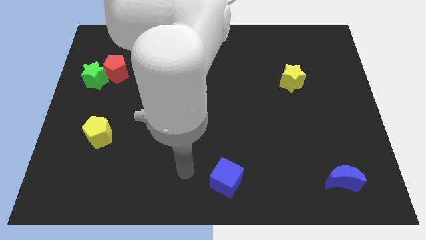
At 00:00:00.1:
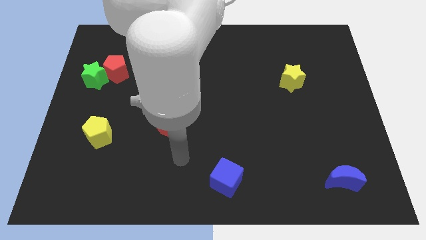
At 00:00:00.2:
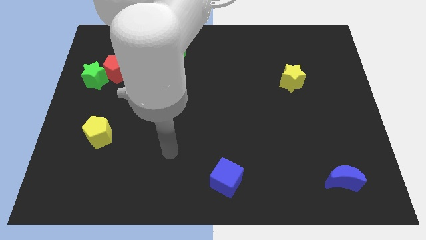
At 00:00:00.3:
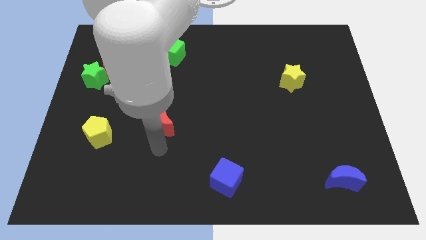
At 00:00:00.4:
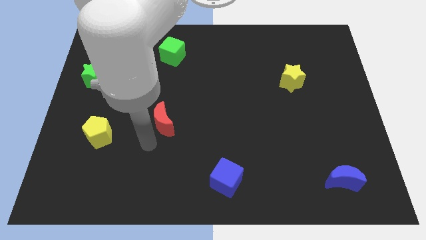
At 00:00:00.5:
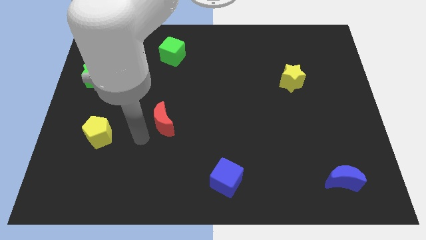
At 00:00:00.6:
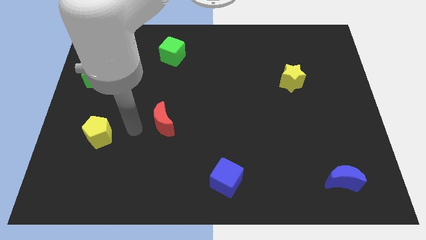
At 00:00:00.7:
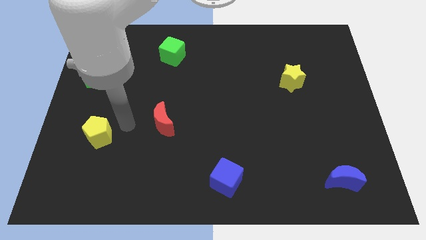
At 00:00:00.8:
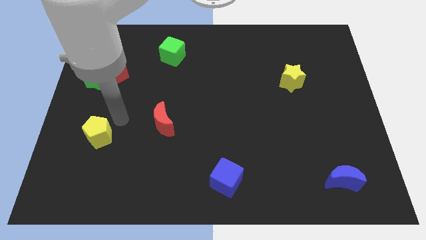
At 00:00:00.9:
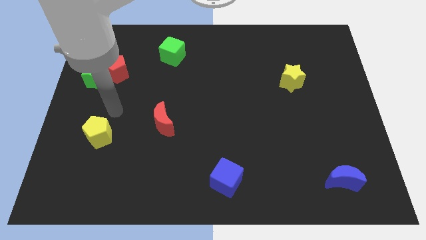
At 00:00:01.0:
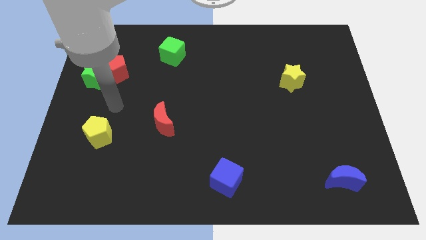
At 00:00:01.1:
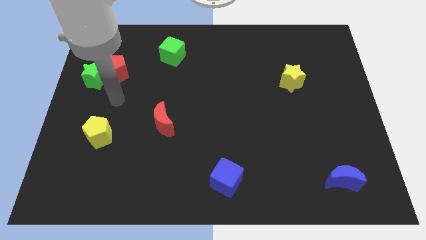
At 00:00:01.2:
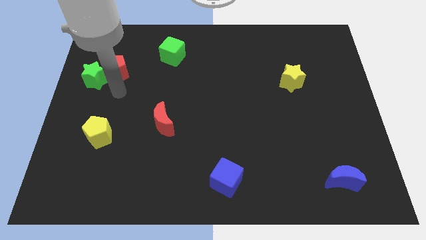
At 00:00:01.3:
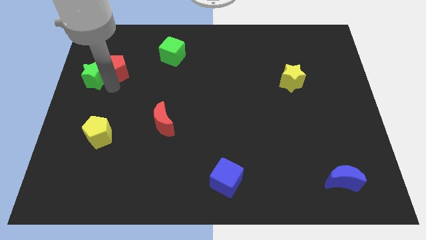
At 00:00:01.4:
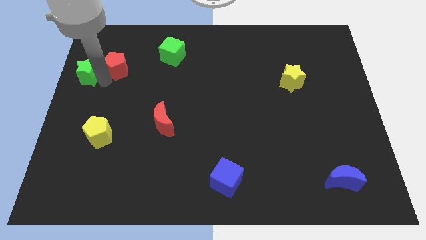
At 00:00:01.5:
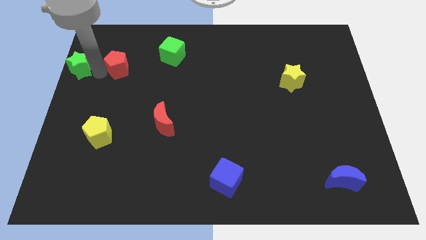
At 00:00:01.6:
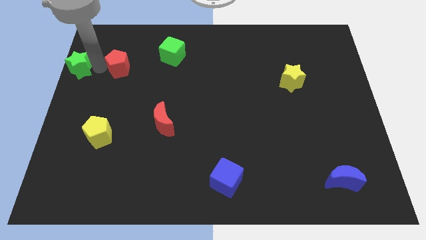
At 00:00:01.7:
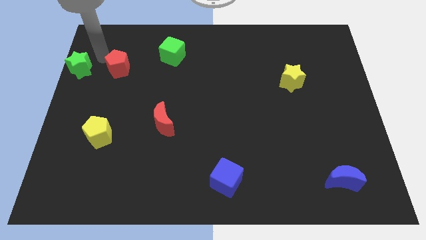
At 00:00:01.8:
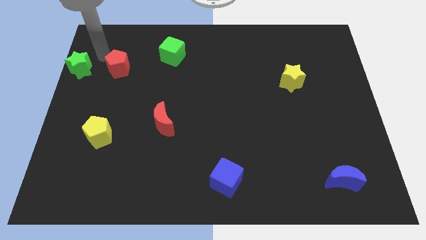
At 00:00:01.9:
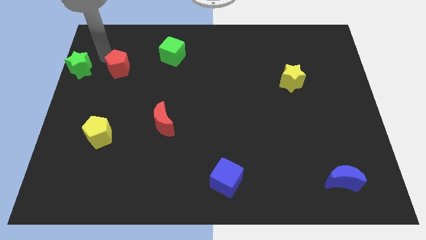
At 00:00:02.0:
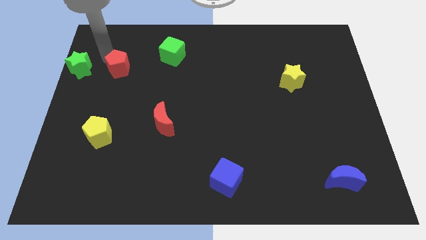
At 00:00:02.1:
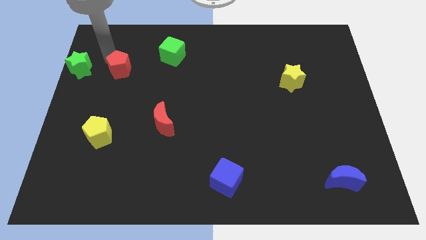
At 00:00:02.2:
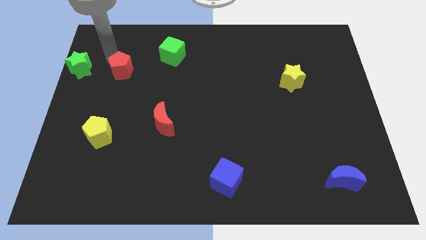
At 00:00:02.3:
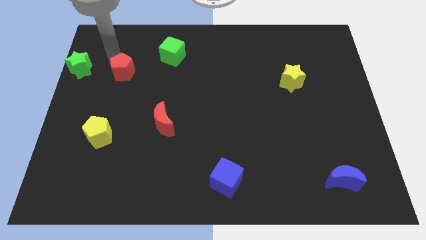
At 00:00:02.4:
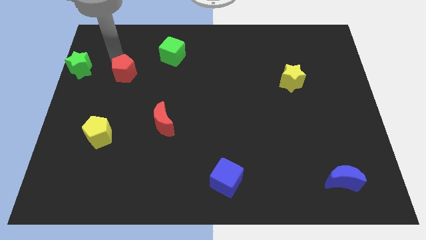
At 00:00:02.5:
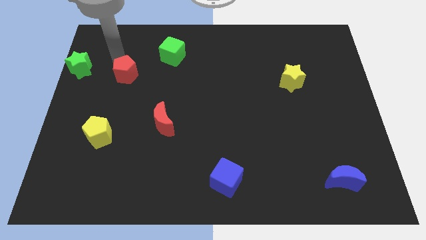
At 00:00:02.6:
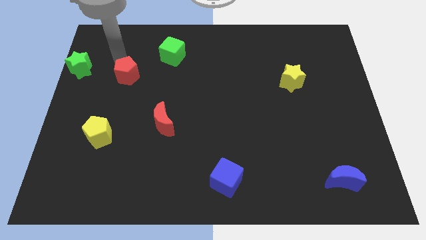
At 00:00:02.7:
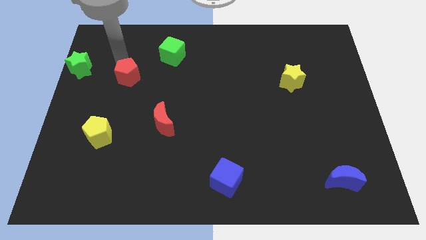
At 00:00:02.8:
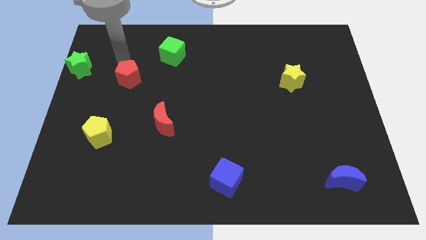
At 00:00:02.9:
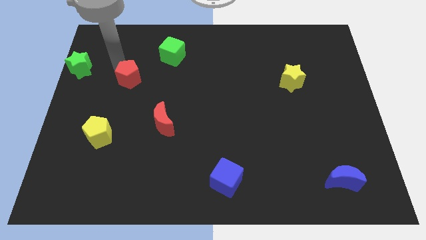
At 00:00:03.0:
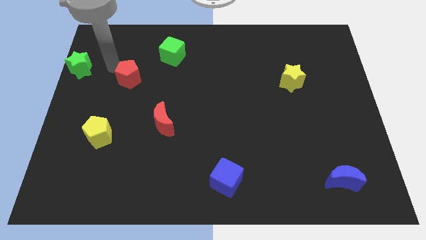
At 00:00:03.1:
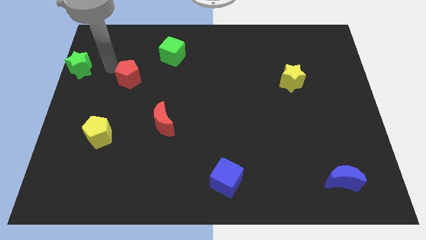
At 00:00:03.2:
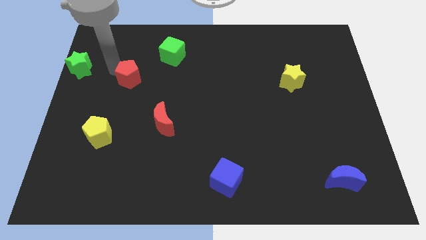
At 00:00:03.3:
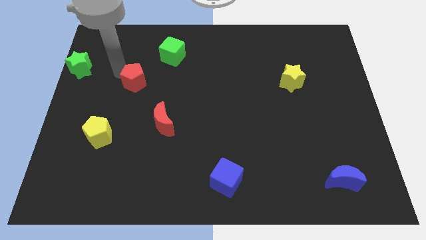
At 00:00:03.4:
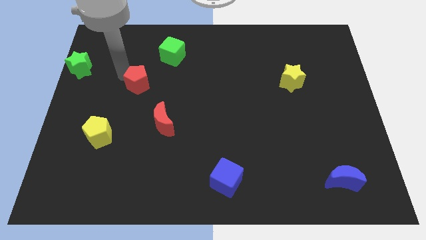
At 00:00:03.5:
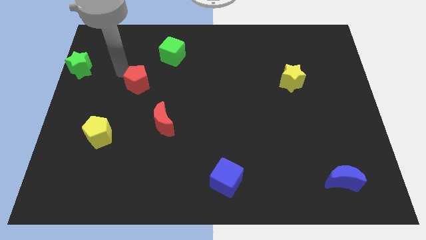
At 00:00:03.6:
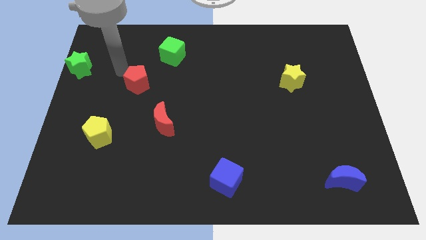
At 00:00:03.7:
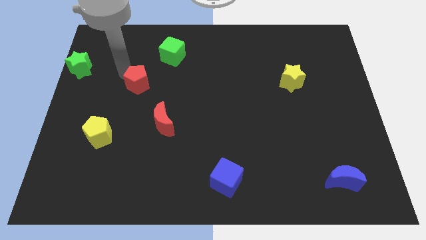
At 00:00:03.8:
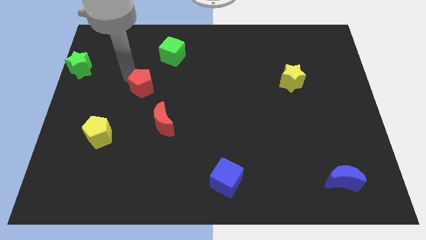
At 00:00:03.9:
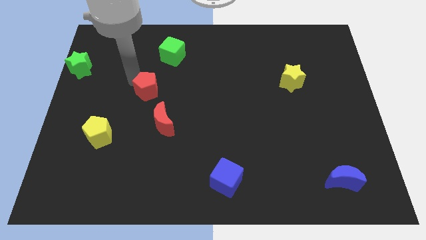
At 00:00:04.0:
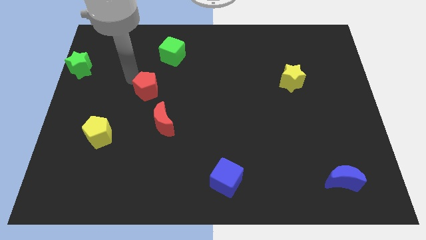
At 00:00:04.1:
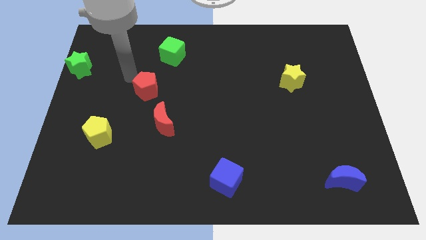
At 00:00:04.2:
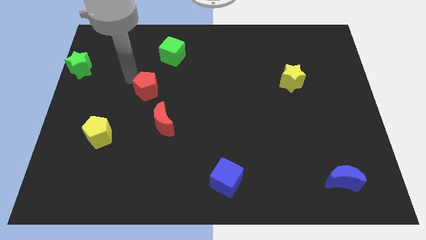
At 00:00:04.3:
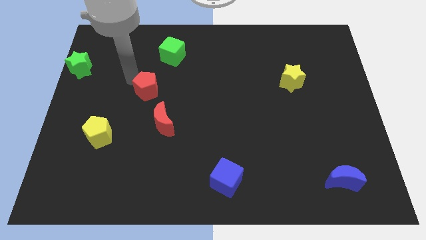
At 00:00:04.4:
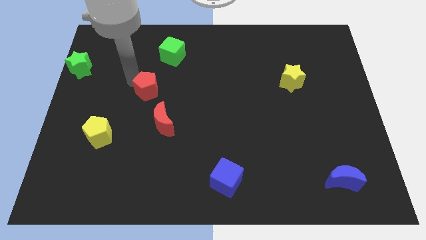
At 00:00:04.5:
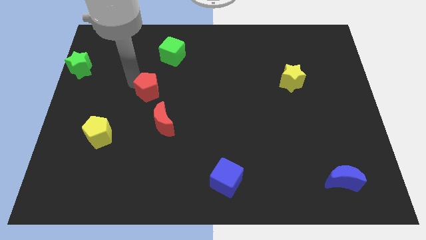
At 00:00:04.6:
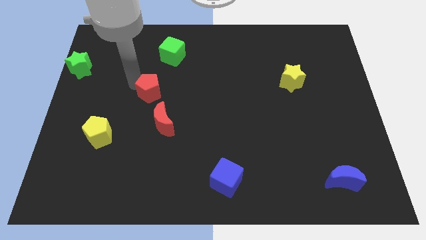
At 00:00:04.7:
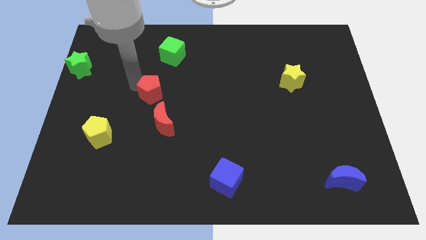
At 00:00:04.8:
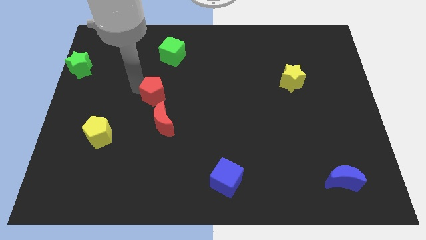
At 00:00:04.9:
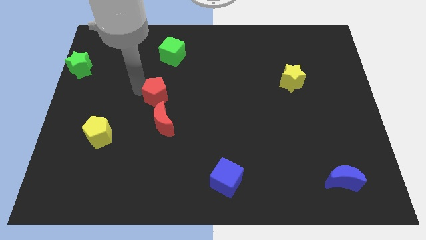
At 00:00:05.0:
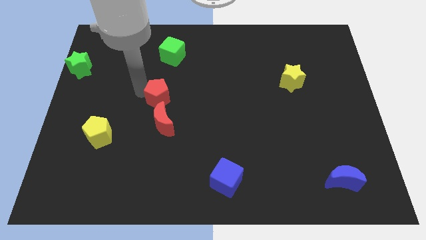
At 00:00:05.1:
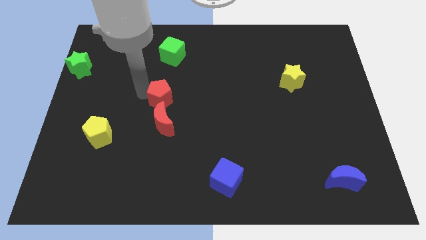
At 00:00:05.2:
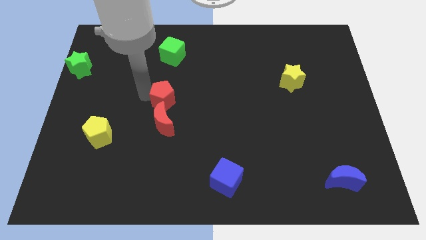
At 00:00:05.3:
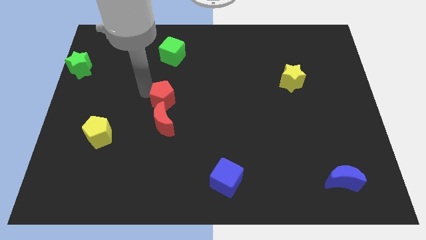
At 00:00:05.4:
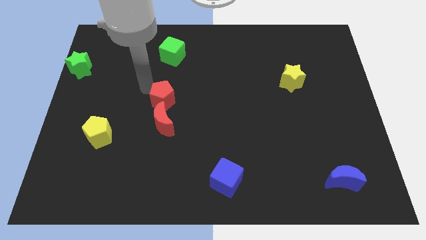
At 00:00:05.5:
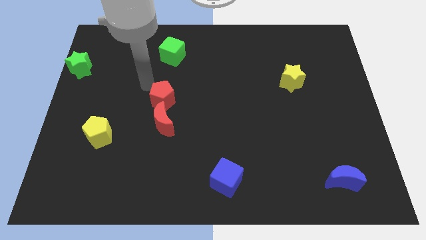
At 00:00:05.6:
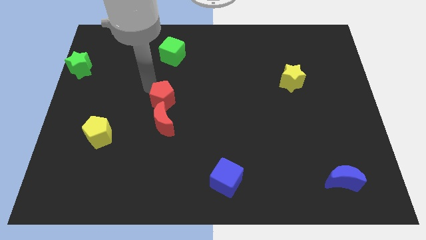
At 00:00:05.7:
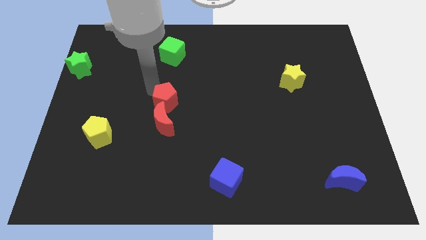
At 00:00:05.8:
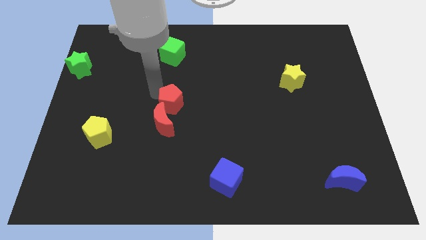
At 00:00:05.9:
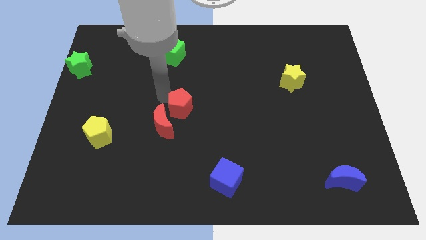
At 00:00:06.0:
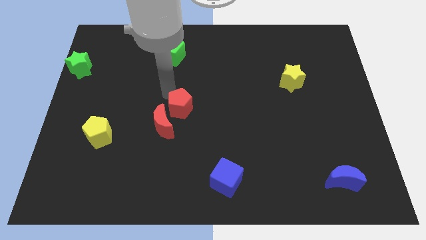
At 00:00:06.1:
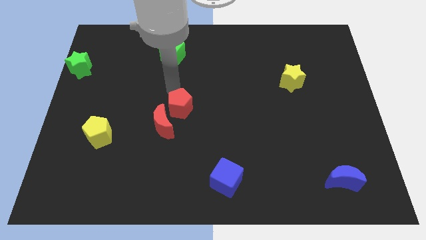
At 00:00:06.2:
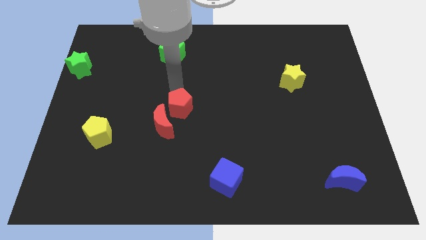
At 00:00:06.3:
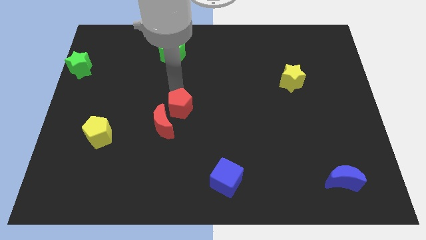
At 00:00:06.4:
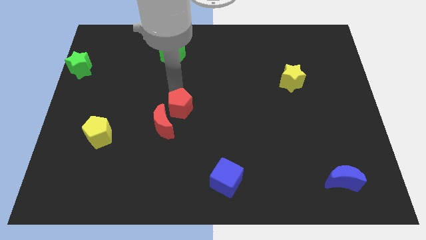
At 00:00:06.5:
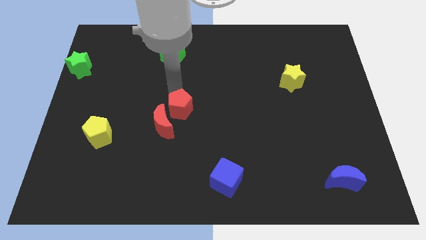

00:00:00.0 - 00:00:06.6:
push the red pentagon down and right

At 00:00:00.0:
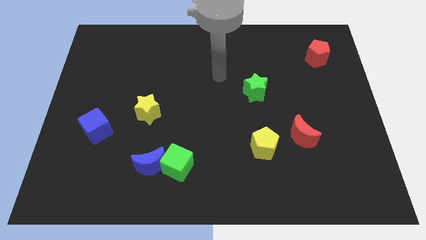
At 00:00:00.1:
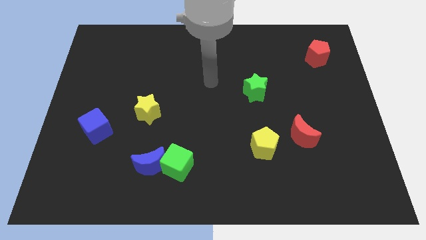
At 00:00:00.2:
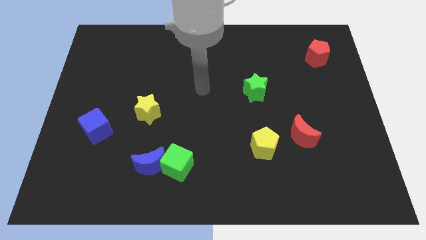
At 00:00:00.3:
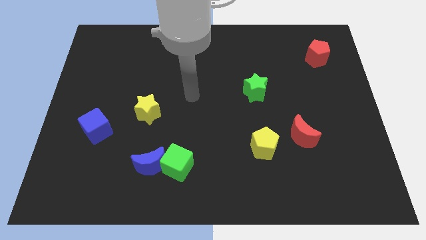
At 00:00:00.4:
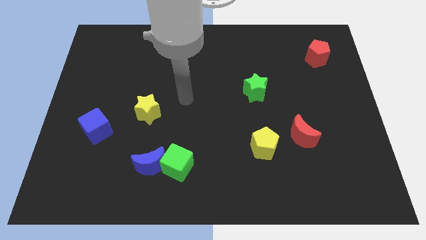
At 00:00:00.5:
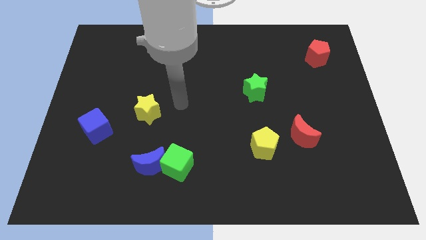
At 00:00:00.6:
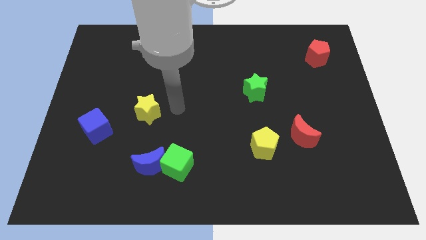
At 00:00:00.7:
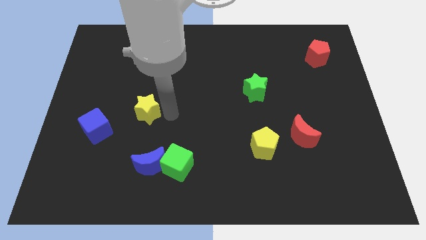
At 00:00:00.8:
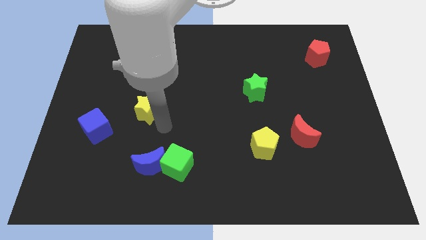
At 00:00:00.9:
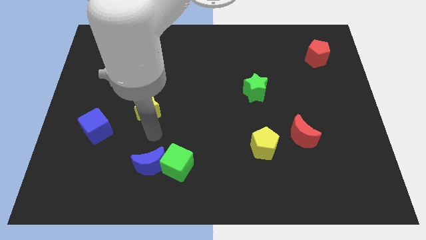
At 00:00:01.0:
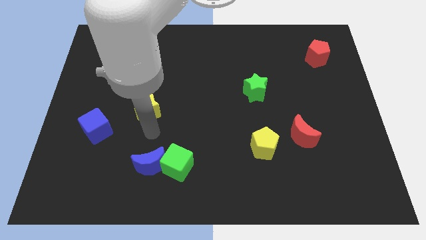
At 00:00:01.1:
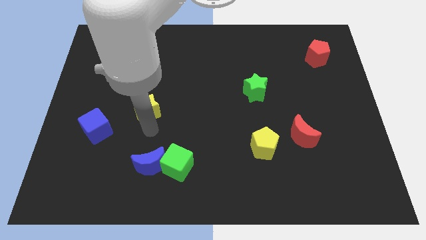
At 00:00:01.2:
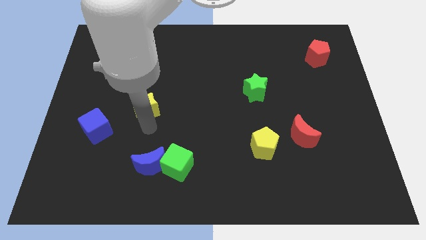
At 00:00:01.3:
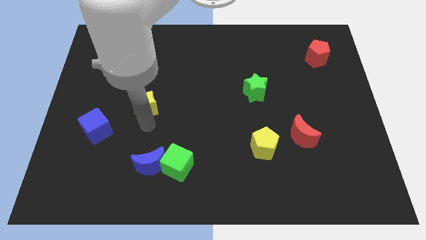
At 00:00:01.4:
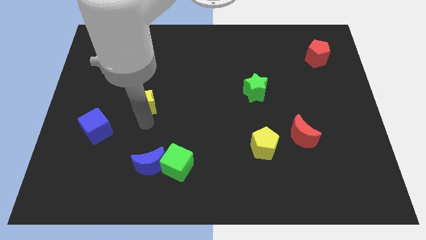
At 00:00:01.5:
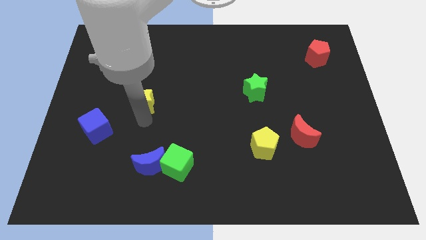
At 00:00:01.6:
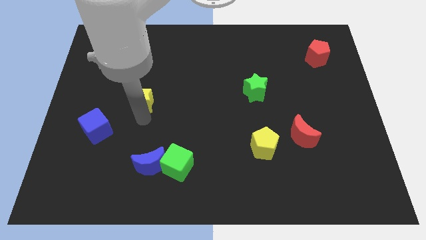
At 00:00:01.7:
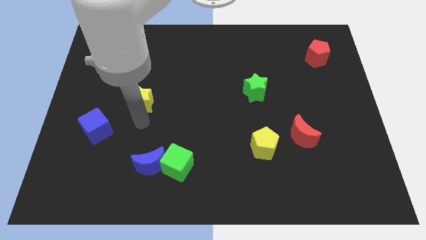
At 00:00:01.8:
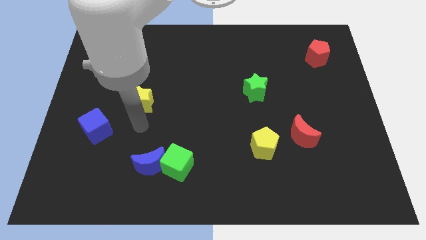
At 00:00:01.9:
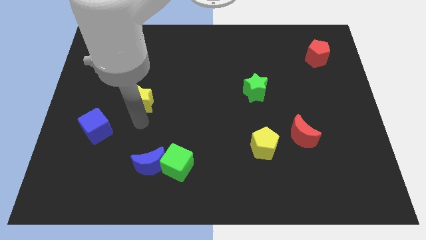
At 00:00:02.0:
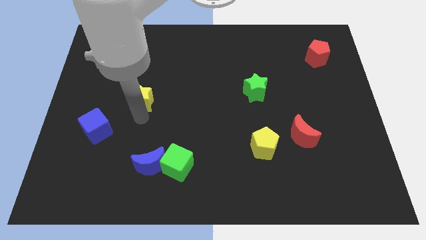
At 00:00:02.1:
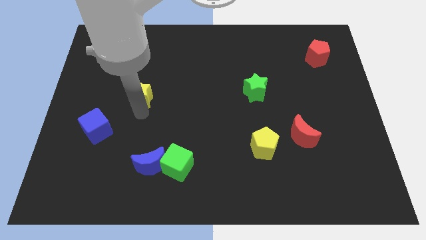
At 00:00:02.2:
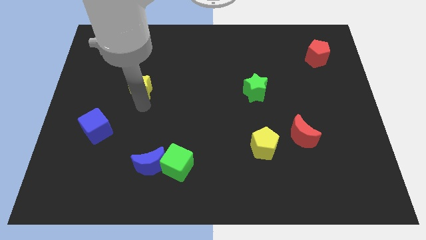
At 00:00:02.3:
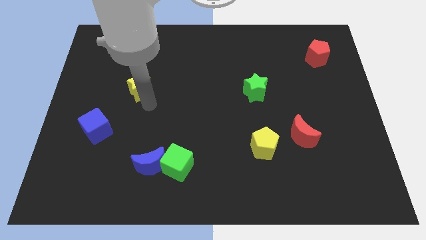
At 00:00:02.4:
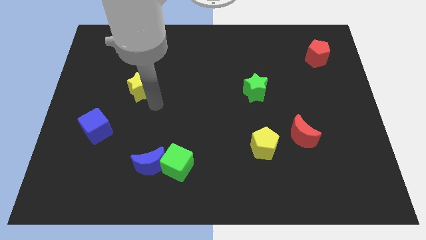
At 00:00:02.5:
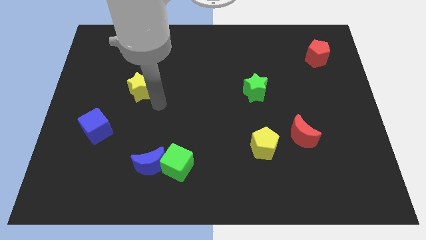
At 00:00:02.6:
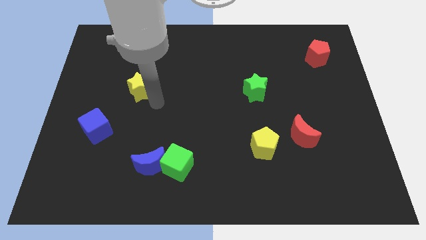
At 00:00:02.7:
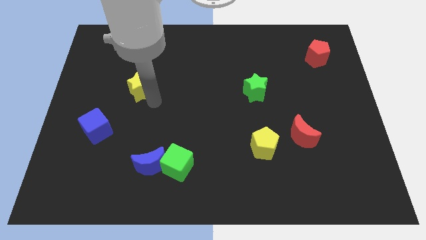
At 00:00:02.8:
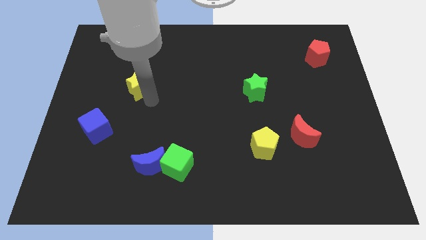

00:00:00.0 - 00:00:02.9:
slightly push the yellow star up and left diagonally
